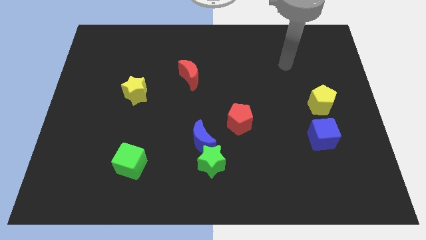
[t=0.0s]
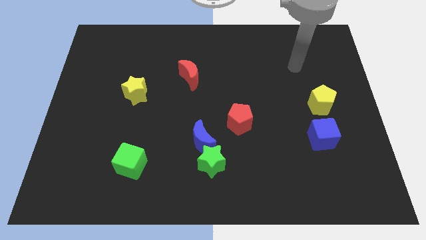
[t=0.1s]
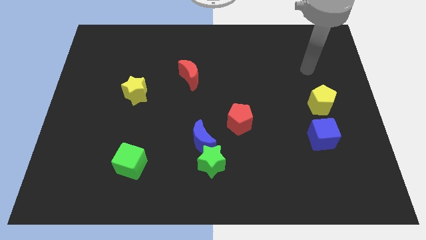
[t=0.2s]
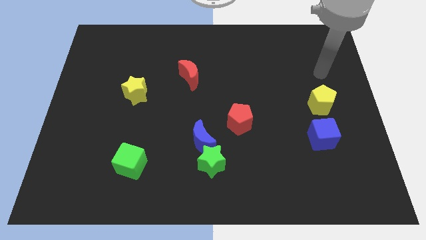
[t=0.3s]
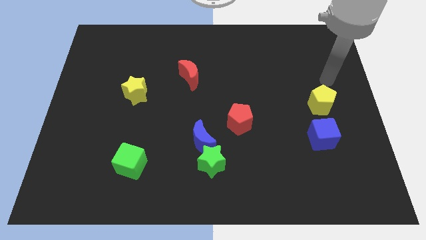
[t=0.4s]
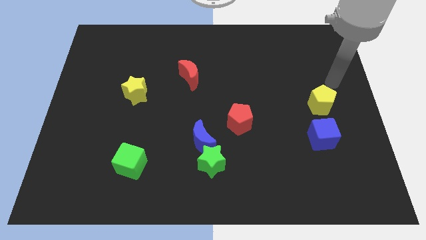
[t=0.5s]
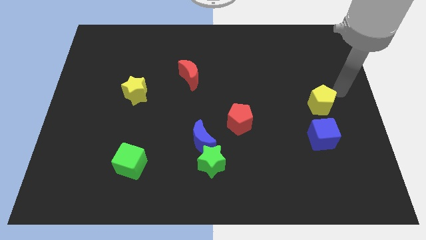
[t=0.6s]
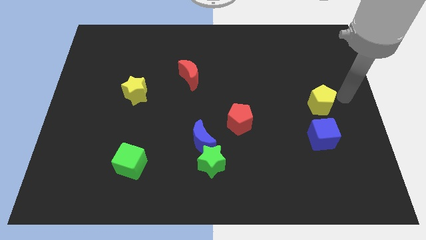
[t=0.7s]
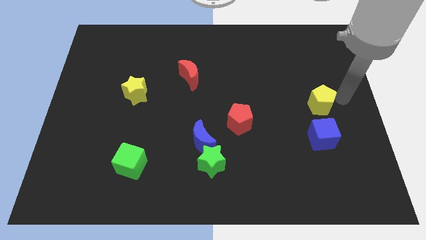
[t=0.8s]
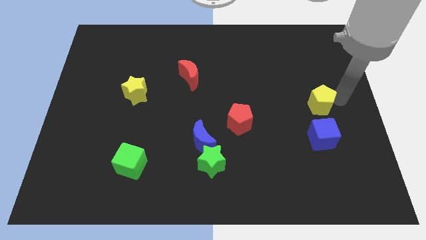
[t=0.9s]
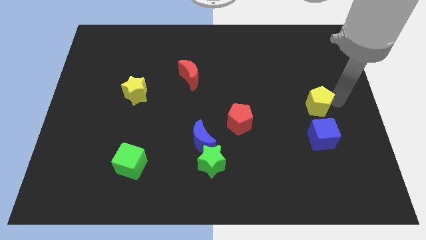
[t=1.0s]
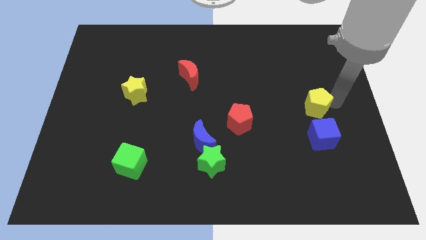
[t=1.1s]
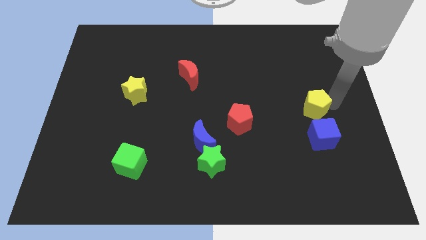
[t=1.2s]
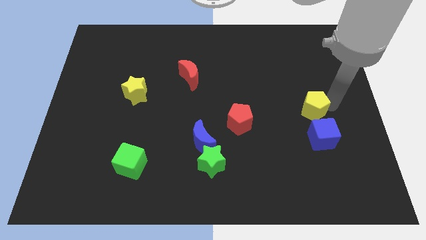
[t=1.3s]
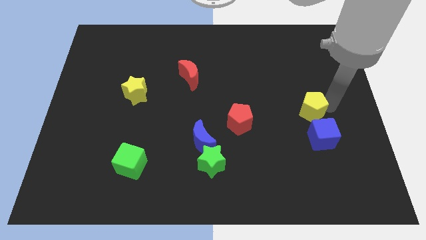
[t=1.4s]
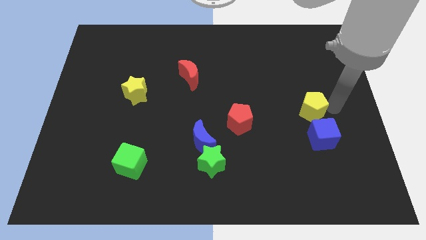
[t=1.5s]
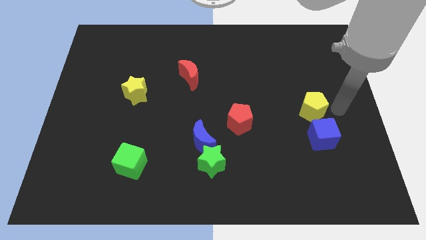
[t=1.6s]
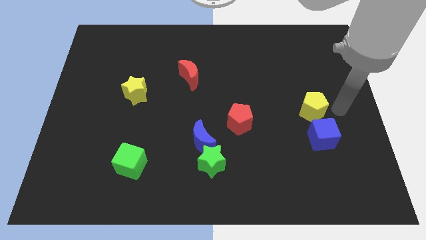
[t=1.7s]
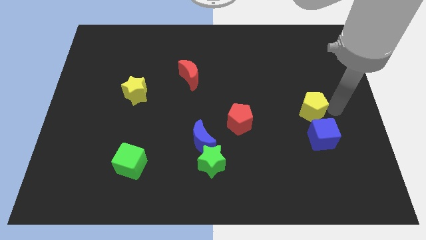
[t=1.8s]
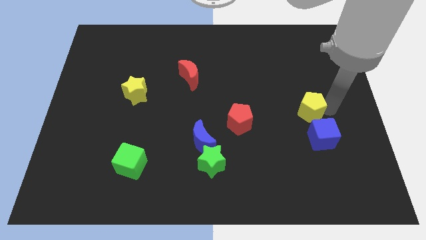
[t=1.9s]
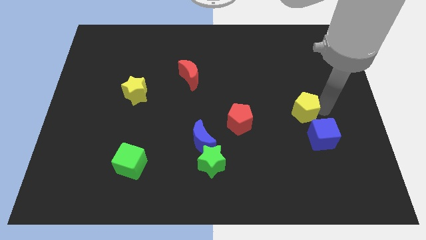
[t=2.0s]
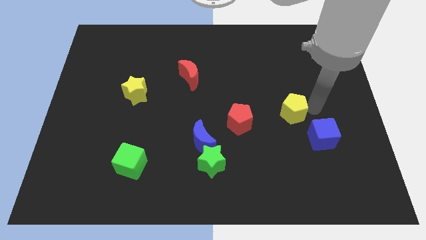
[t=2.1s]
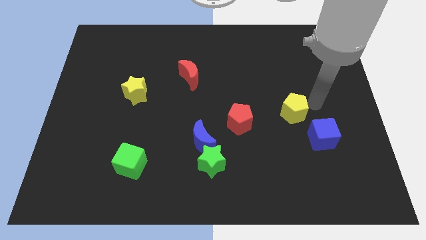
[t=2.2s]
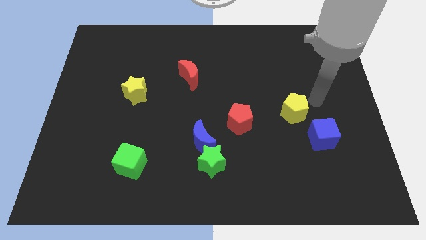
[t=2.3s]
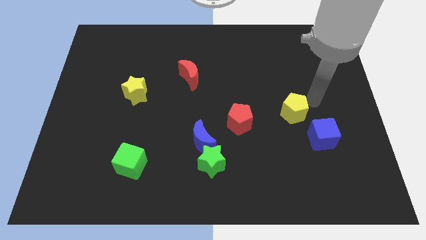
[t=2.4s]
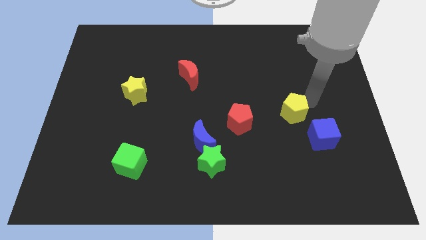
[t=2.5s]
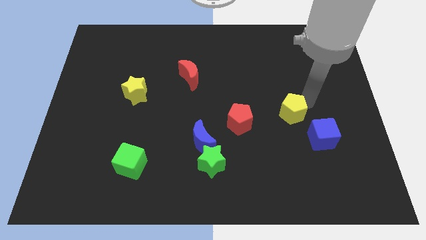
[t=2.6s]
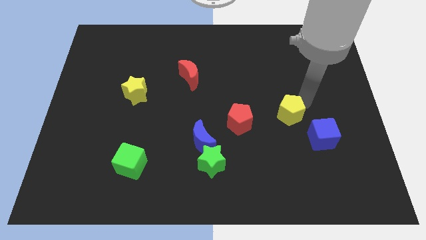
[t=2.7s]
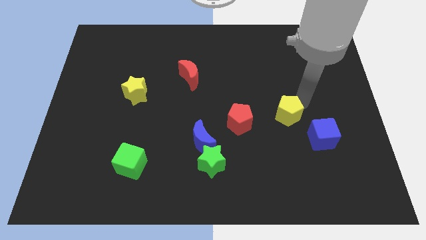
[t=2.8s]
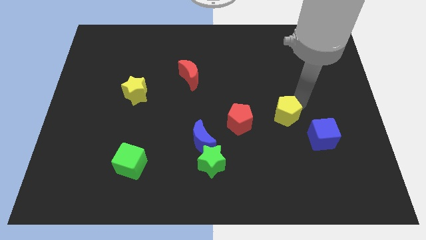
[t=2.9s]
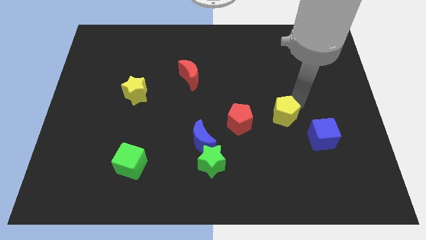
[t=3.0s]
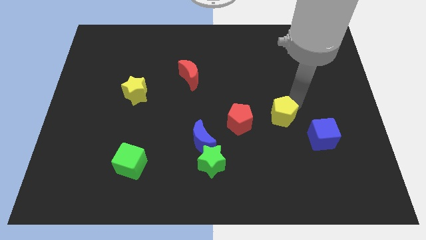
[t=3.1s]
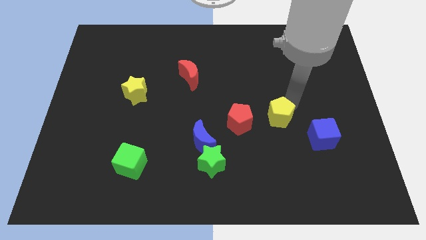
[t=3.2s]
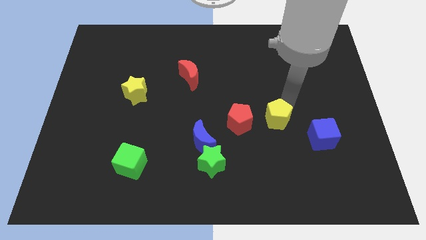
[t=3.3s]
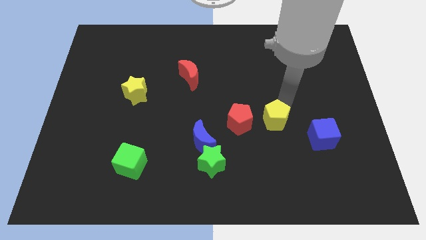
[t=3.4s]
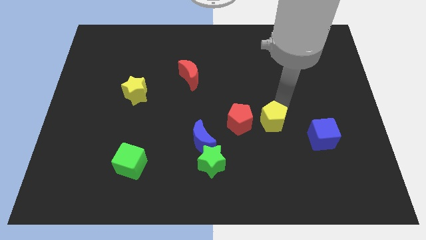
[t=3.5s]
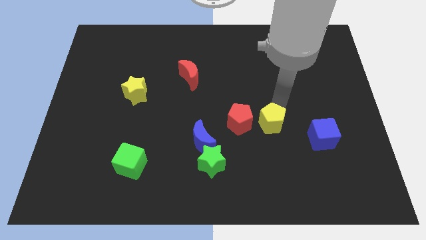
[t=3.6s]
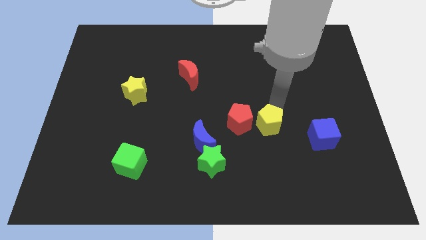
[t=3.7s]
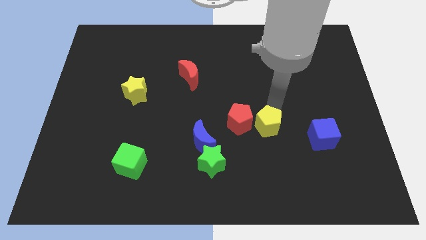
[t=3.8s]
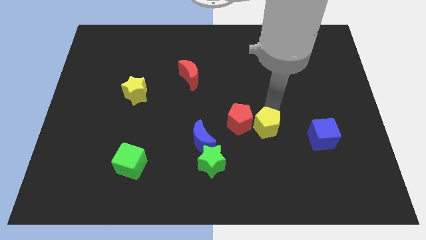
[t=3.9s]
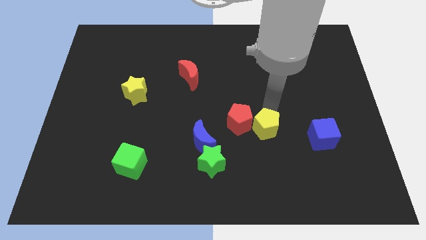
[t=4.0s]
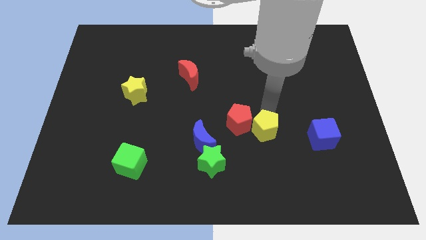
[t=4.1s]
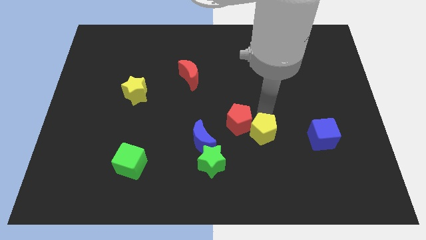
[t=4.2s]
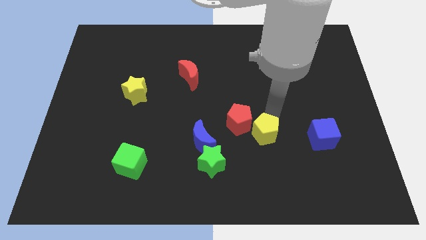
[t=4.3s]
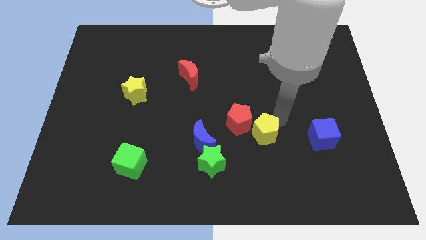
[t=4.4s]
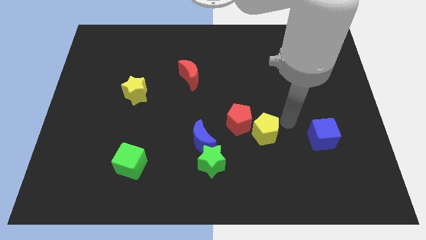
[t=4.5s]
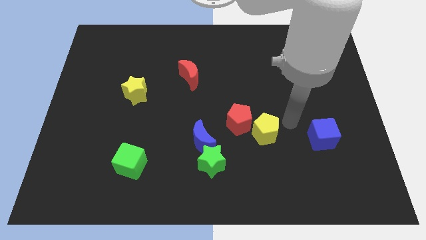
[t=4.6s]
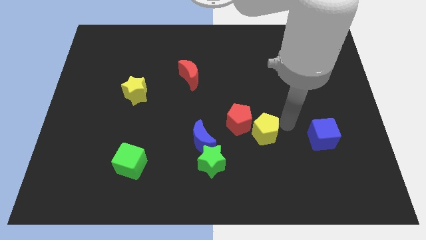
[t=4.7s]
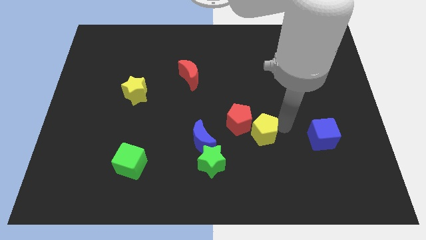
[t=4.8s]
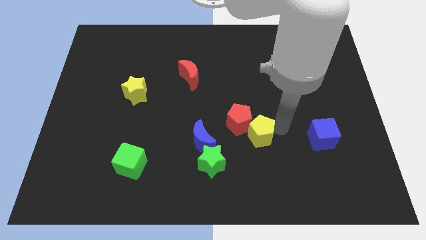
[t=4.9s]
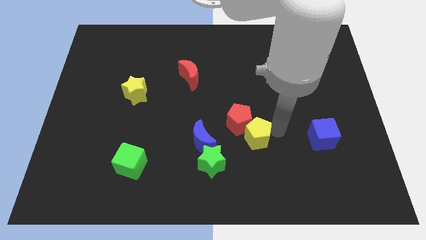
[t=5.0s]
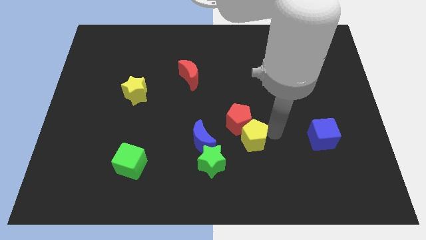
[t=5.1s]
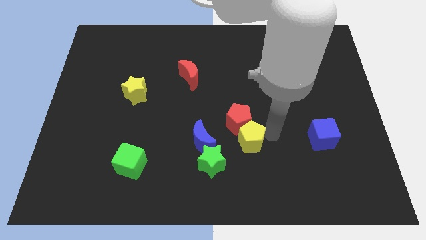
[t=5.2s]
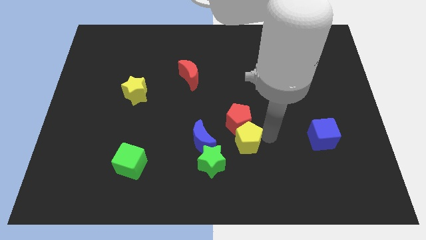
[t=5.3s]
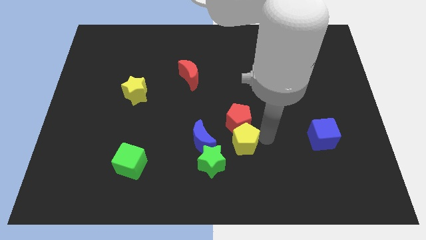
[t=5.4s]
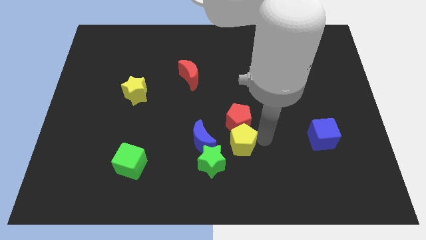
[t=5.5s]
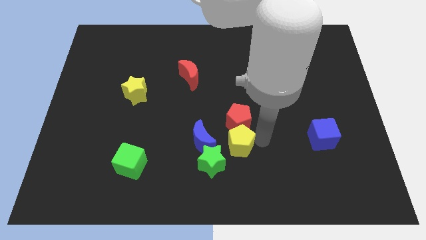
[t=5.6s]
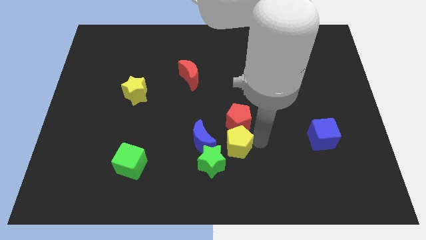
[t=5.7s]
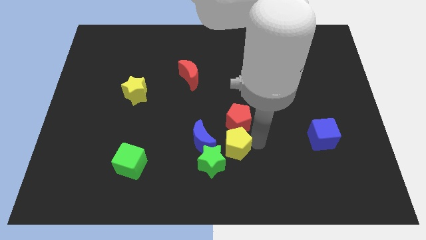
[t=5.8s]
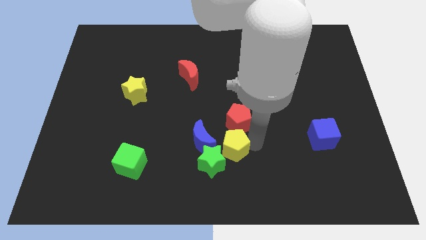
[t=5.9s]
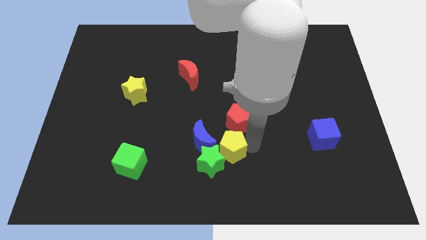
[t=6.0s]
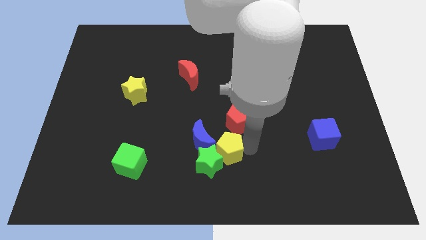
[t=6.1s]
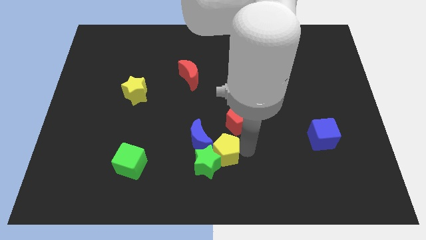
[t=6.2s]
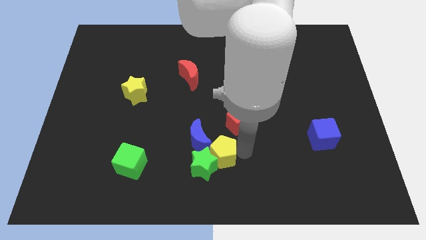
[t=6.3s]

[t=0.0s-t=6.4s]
move the yellow pentagon close to the blue moon

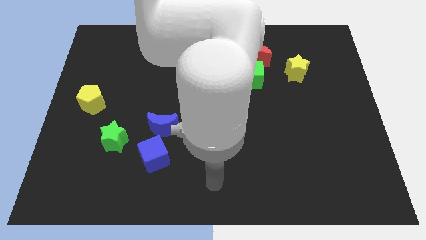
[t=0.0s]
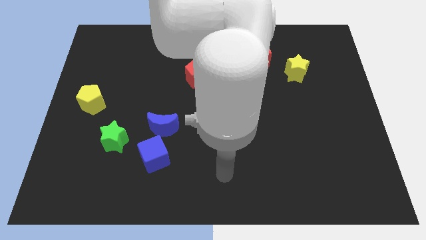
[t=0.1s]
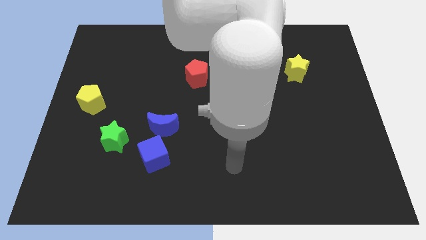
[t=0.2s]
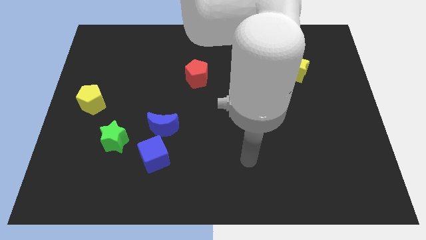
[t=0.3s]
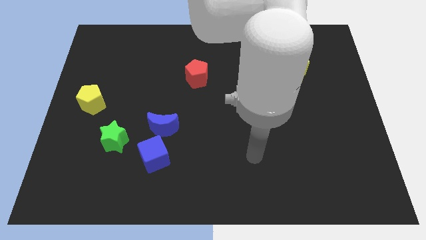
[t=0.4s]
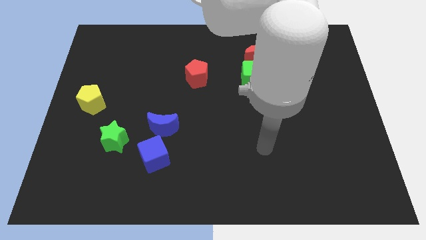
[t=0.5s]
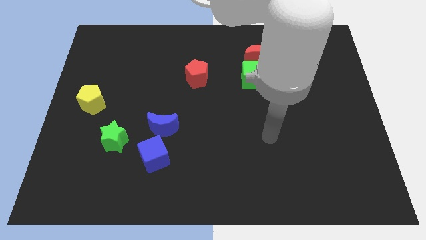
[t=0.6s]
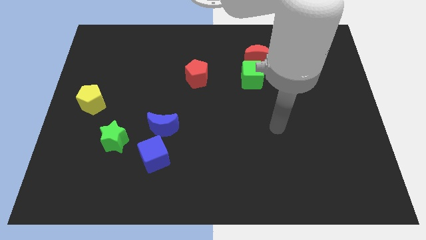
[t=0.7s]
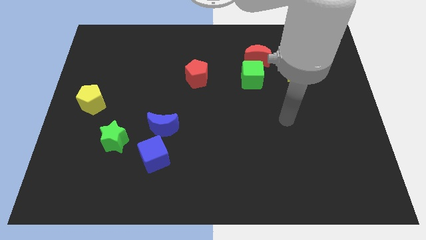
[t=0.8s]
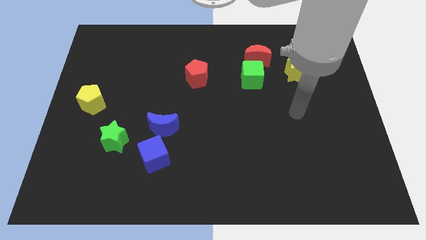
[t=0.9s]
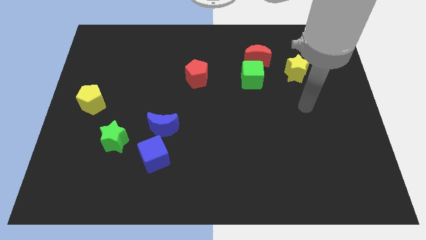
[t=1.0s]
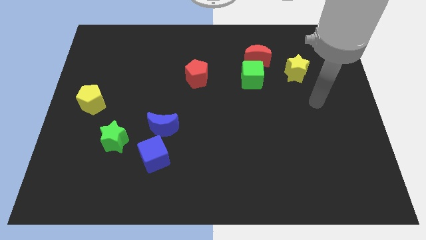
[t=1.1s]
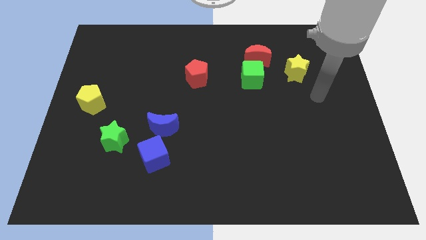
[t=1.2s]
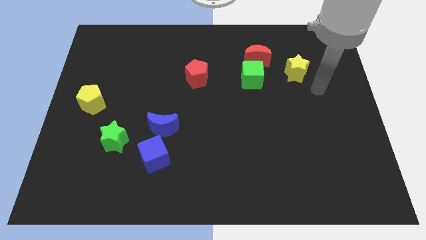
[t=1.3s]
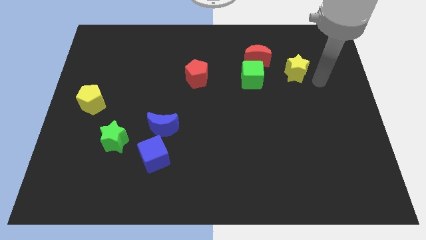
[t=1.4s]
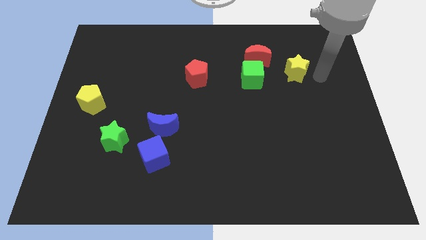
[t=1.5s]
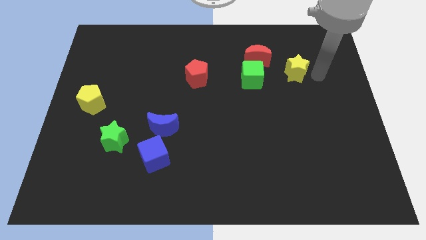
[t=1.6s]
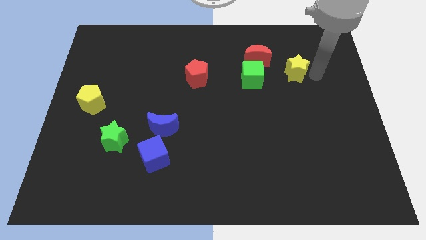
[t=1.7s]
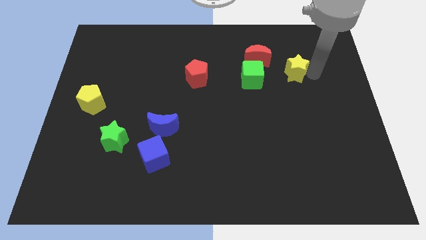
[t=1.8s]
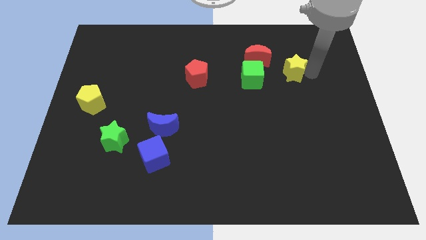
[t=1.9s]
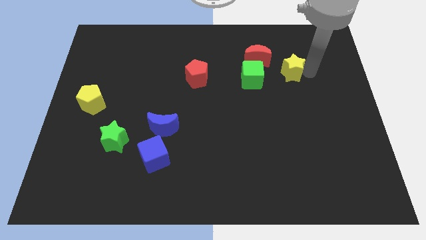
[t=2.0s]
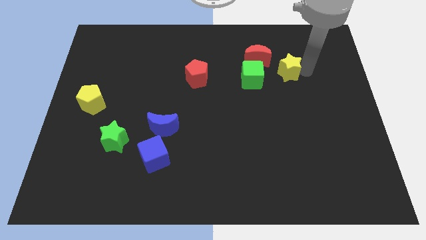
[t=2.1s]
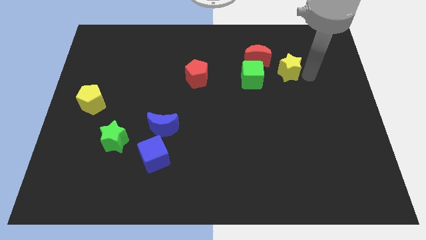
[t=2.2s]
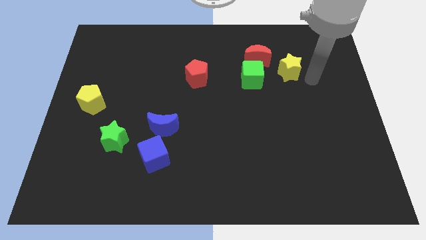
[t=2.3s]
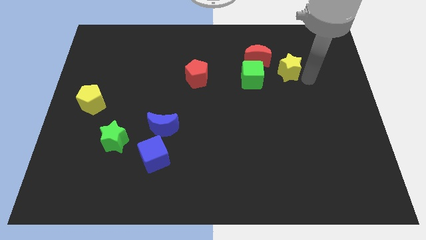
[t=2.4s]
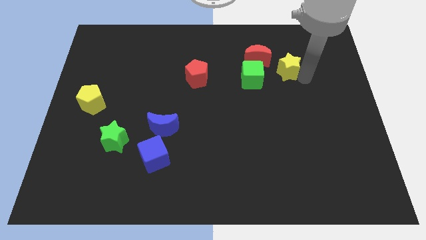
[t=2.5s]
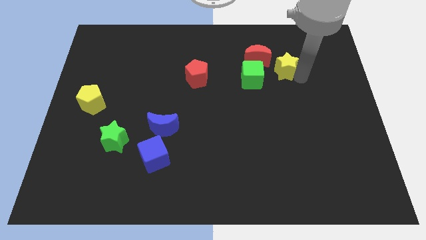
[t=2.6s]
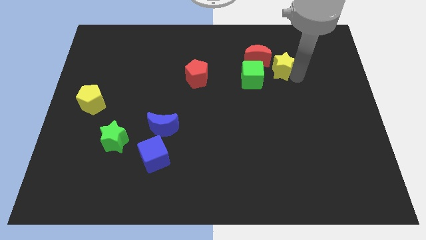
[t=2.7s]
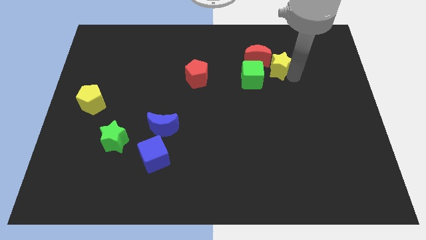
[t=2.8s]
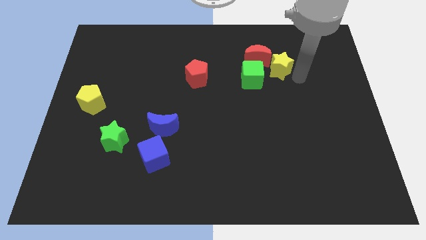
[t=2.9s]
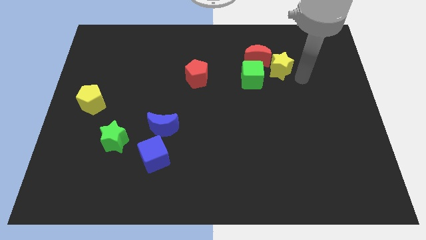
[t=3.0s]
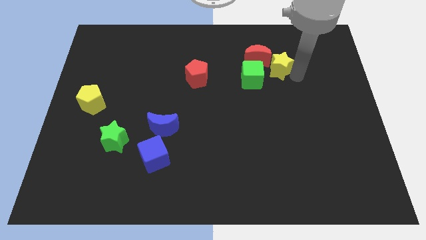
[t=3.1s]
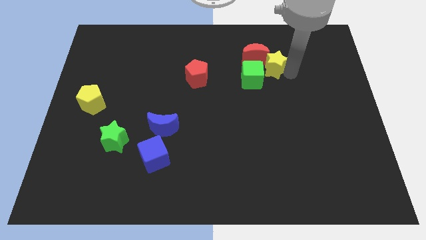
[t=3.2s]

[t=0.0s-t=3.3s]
put the yellow star close to the red moon
